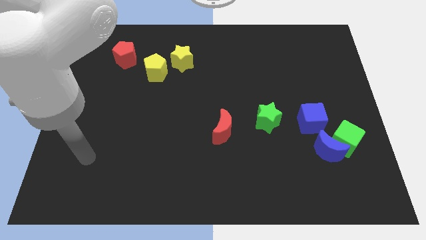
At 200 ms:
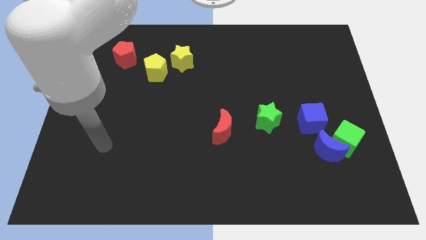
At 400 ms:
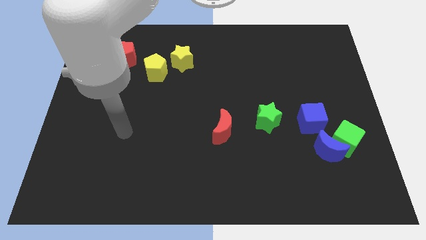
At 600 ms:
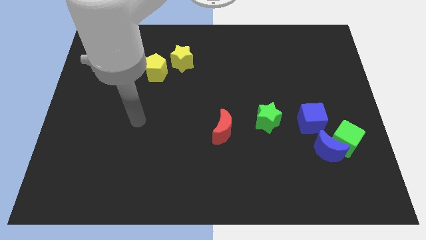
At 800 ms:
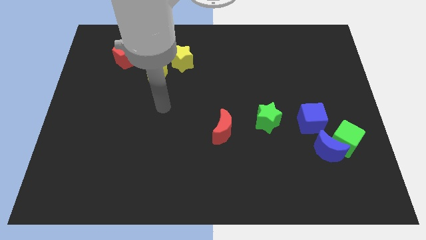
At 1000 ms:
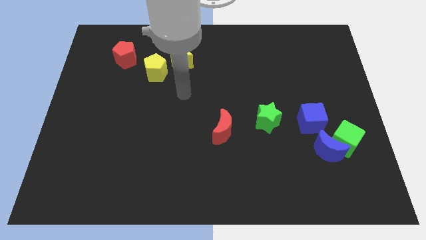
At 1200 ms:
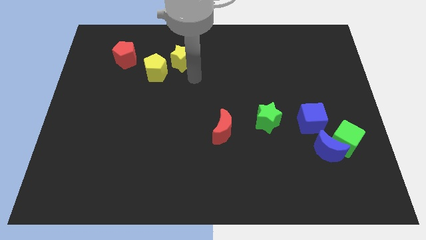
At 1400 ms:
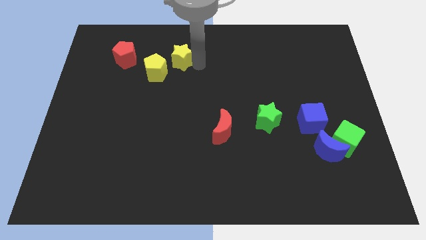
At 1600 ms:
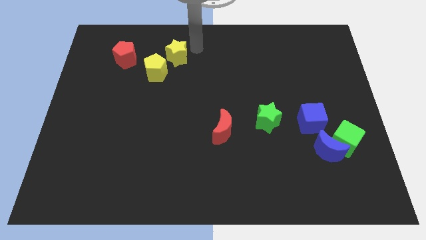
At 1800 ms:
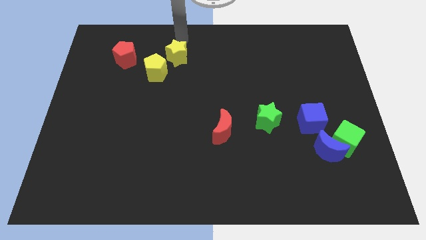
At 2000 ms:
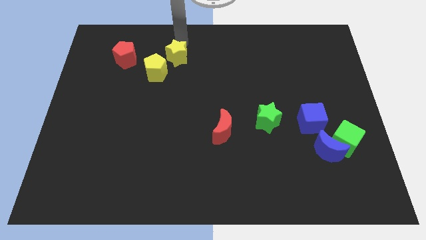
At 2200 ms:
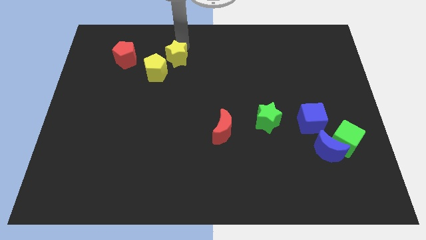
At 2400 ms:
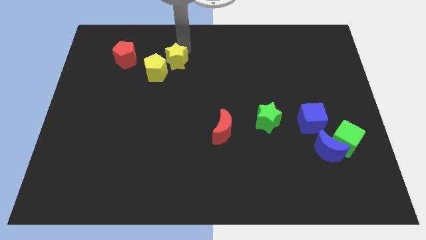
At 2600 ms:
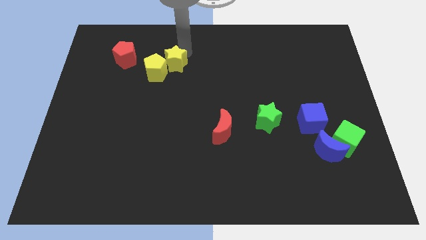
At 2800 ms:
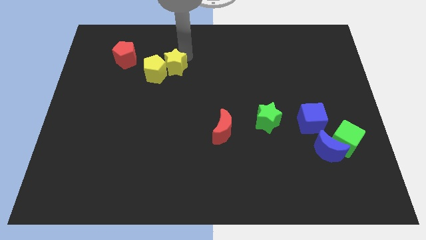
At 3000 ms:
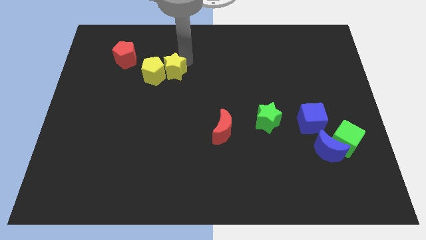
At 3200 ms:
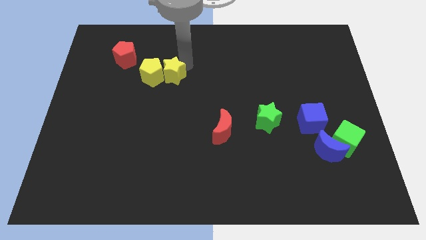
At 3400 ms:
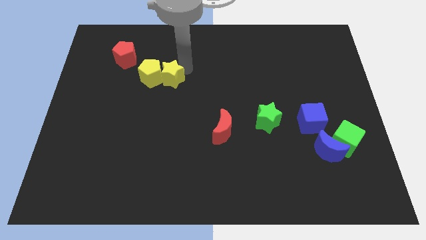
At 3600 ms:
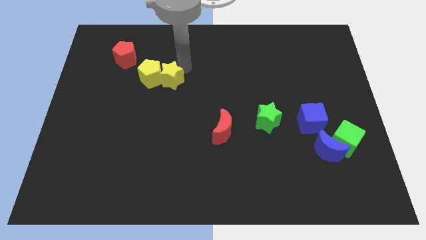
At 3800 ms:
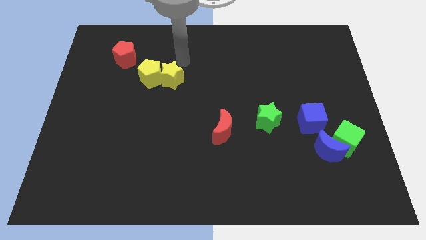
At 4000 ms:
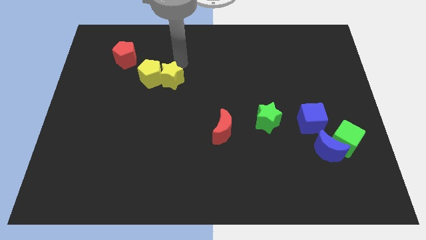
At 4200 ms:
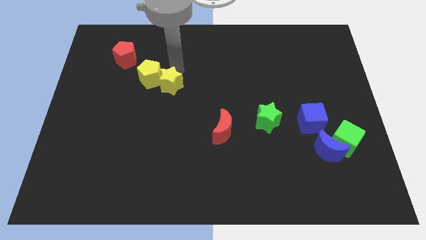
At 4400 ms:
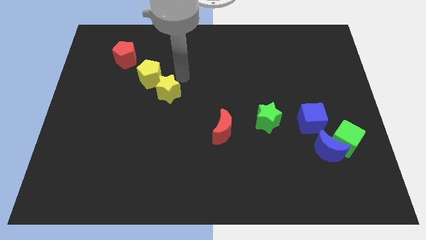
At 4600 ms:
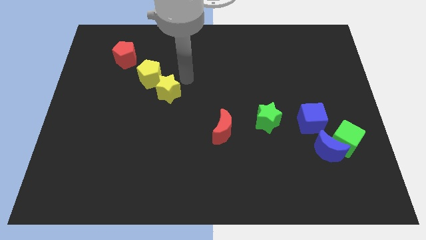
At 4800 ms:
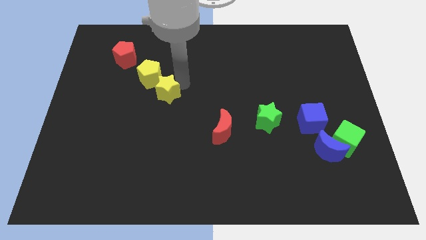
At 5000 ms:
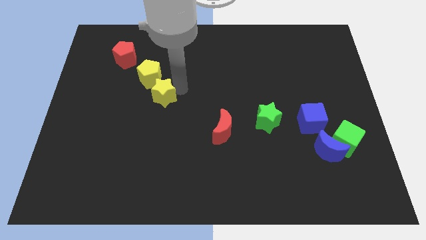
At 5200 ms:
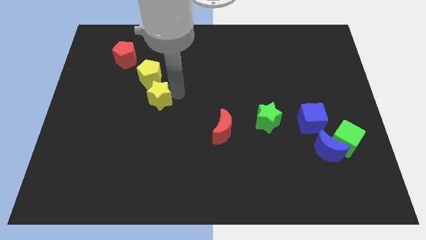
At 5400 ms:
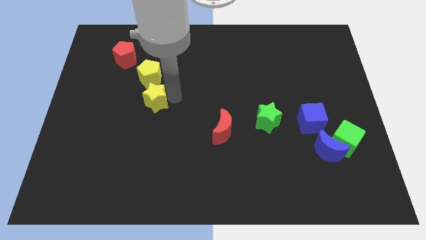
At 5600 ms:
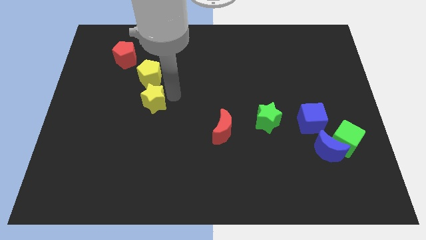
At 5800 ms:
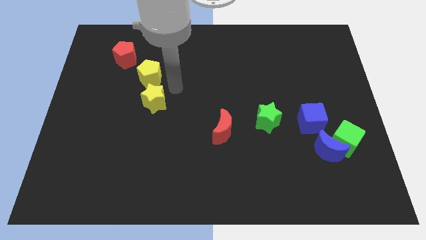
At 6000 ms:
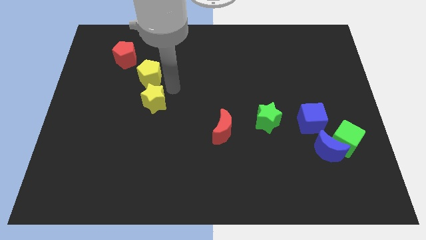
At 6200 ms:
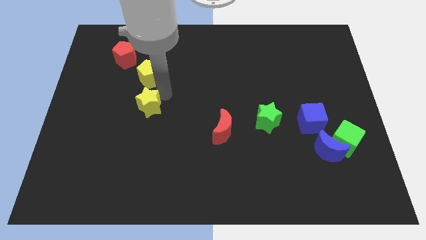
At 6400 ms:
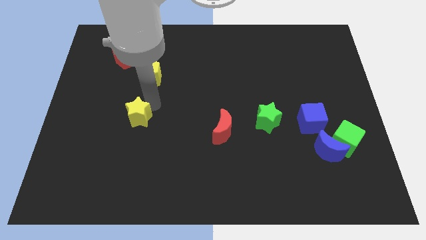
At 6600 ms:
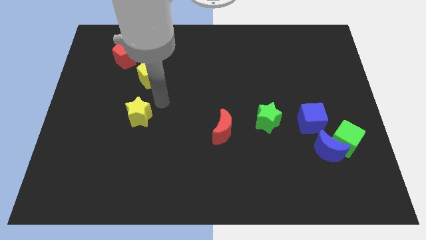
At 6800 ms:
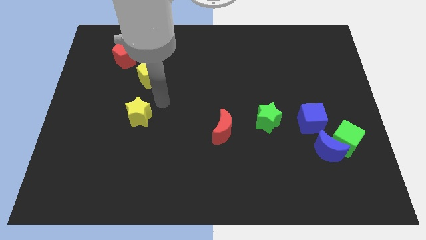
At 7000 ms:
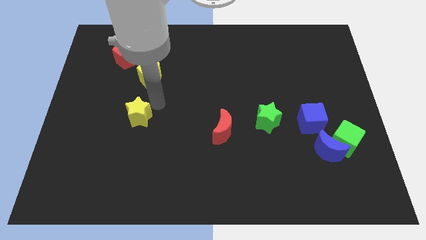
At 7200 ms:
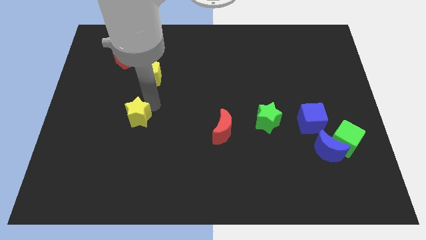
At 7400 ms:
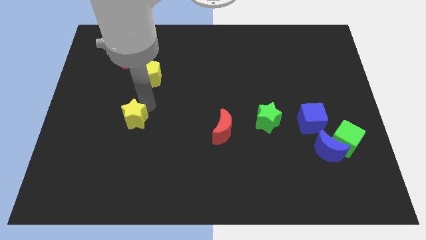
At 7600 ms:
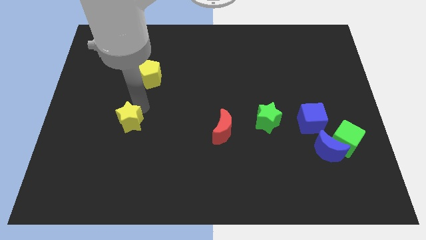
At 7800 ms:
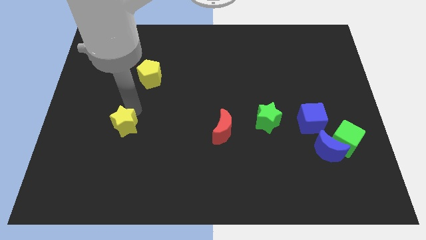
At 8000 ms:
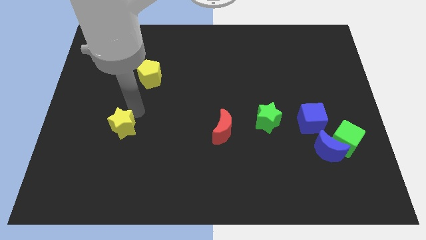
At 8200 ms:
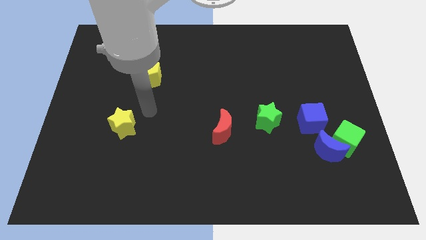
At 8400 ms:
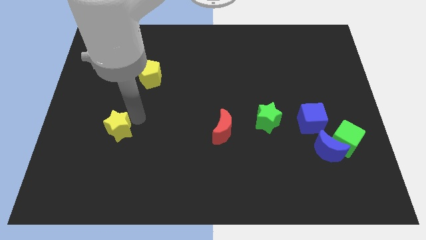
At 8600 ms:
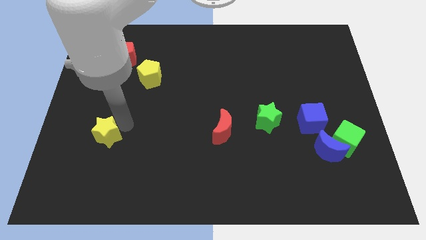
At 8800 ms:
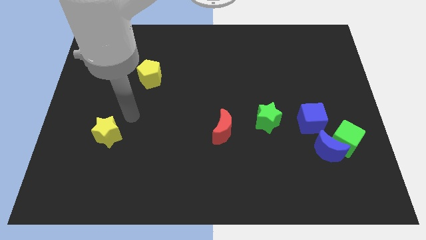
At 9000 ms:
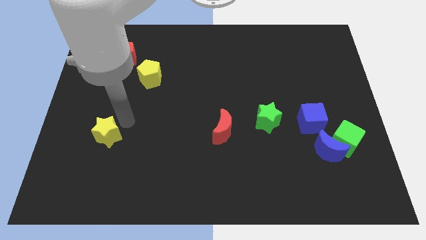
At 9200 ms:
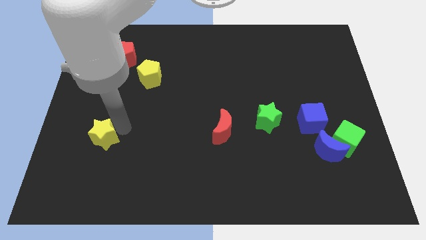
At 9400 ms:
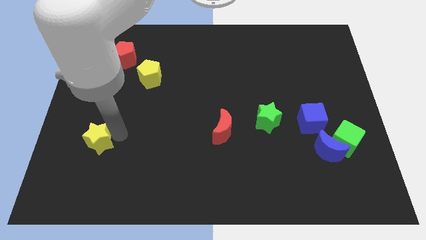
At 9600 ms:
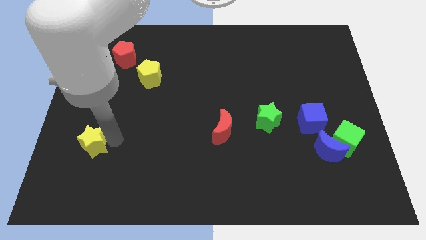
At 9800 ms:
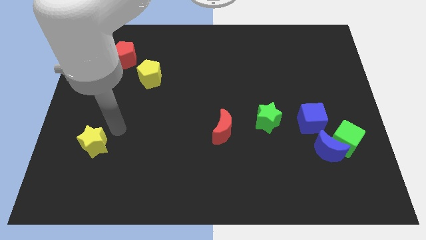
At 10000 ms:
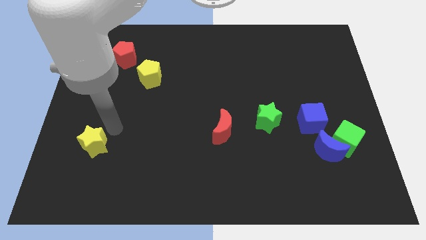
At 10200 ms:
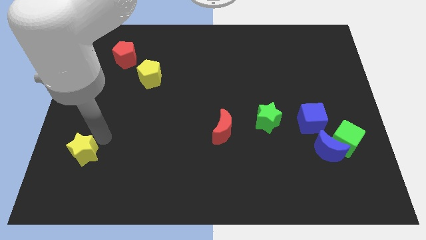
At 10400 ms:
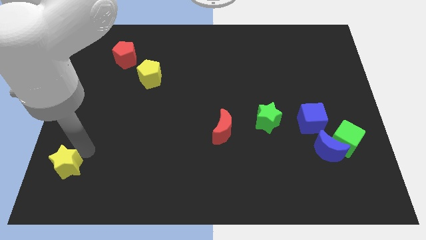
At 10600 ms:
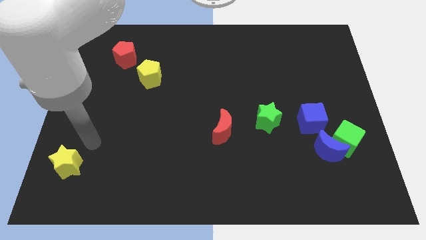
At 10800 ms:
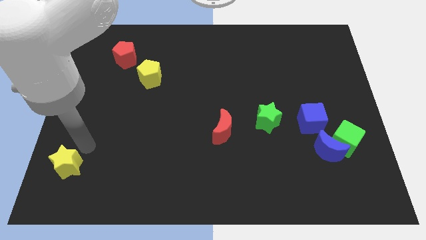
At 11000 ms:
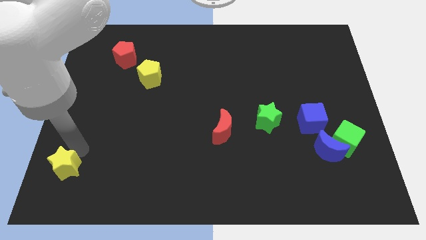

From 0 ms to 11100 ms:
push the yellow star to the lower left corner

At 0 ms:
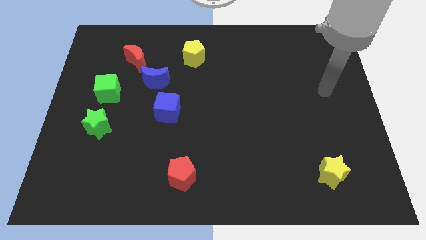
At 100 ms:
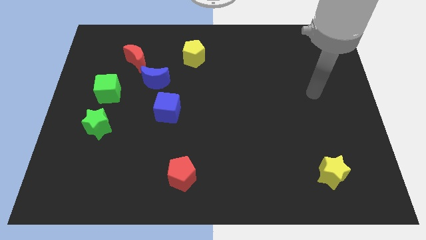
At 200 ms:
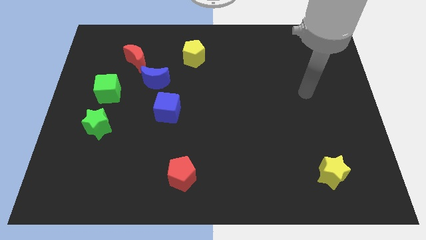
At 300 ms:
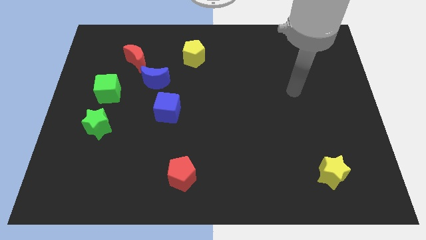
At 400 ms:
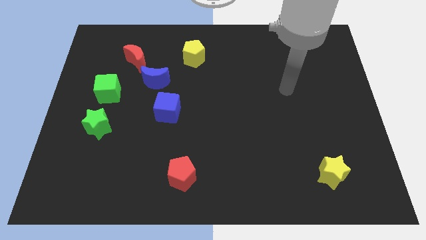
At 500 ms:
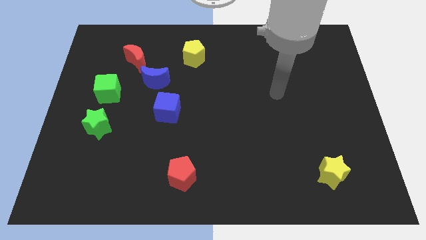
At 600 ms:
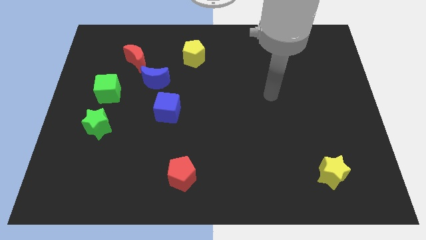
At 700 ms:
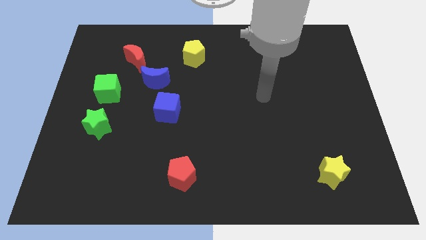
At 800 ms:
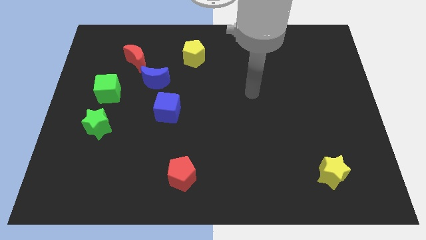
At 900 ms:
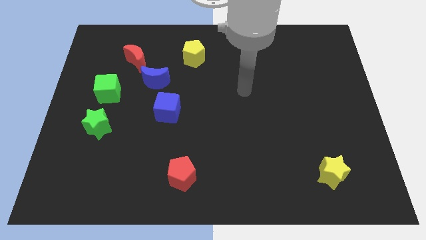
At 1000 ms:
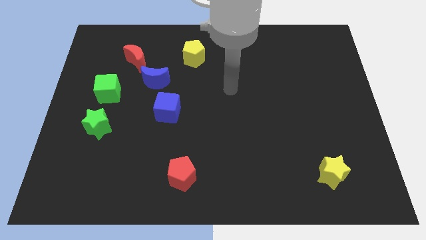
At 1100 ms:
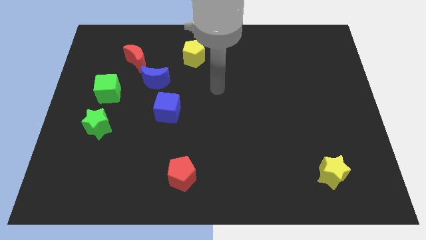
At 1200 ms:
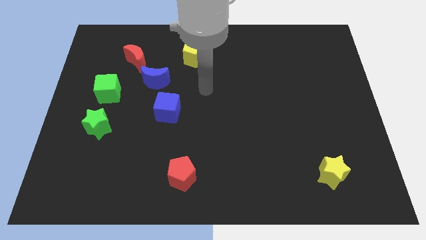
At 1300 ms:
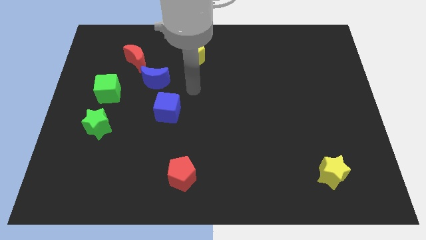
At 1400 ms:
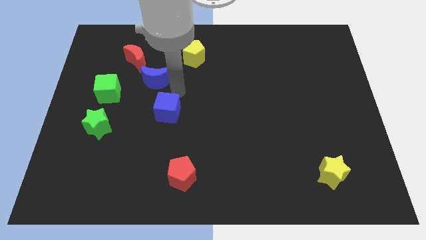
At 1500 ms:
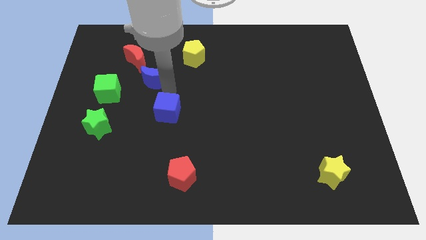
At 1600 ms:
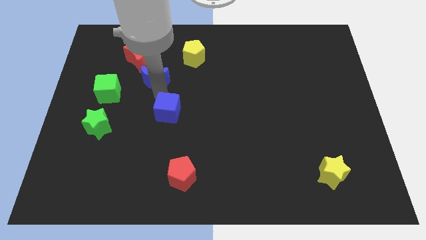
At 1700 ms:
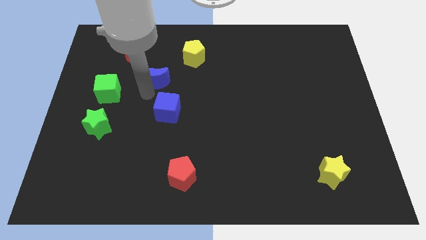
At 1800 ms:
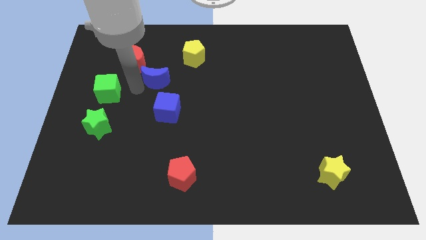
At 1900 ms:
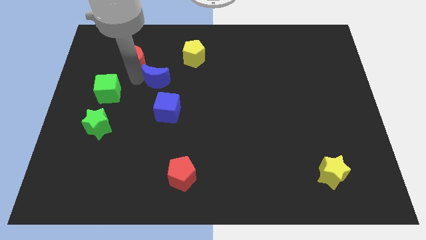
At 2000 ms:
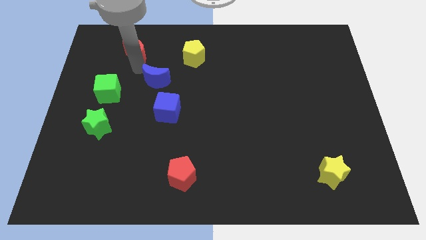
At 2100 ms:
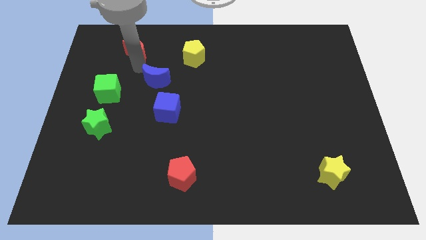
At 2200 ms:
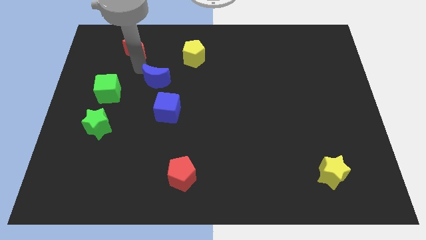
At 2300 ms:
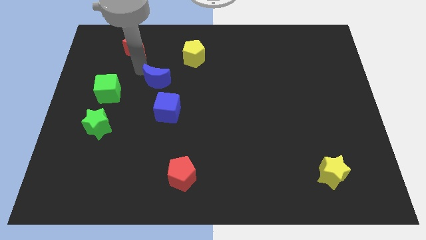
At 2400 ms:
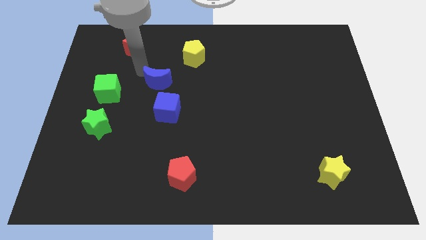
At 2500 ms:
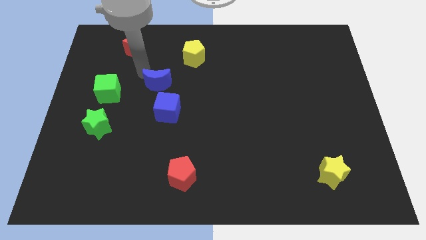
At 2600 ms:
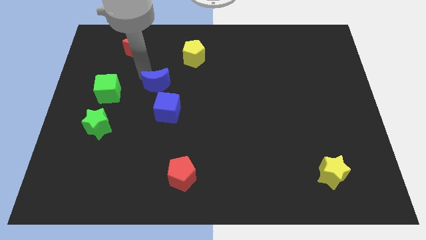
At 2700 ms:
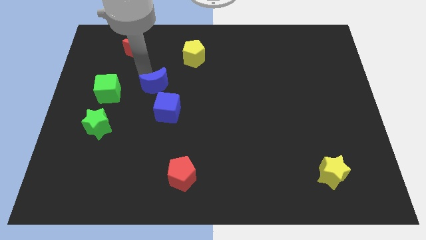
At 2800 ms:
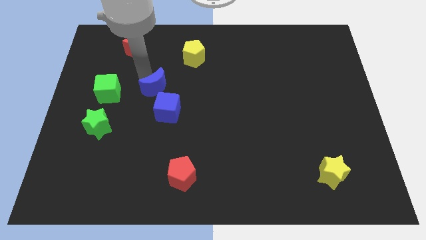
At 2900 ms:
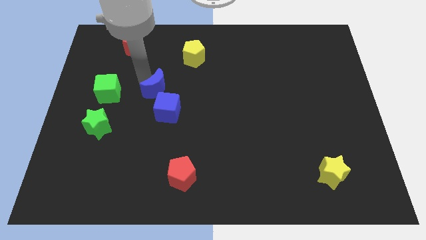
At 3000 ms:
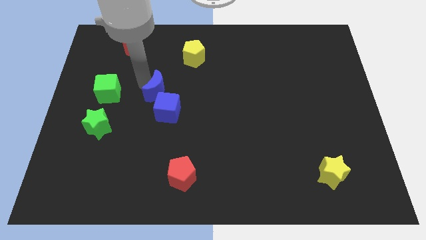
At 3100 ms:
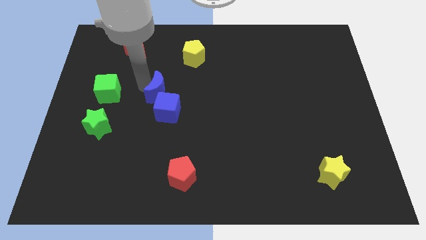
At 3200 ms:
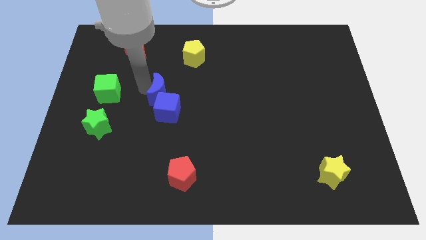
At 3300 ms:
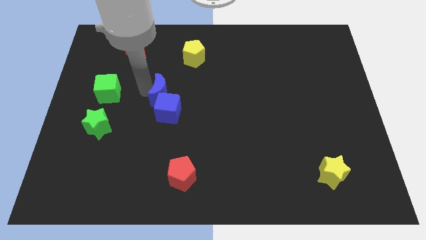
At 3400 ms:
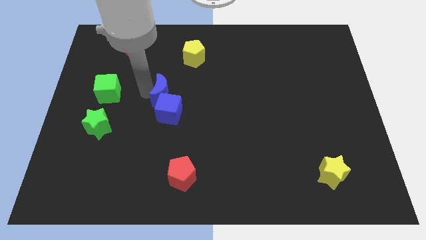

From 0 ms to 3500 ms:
push the blue moon to the middle of the board
